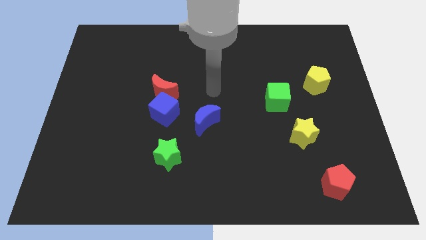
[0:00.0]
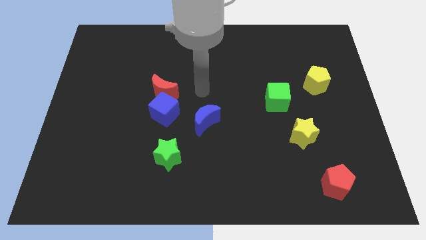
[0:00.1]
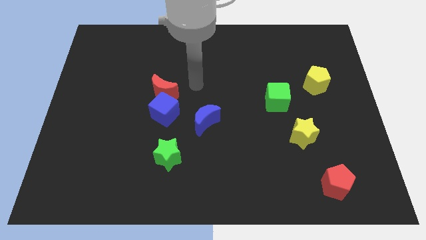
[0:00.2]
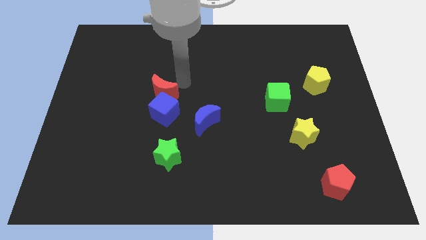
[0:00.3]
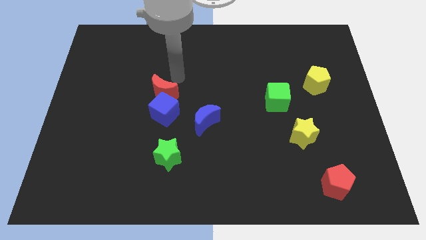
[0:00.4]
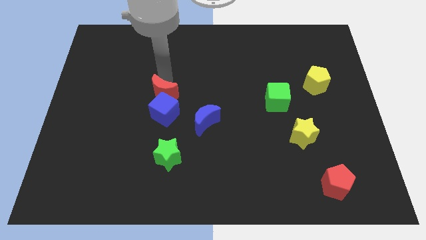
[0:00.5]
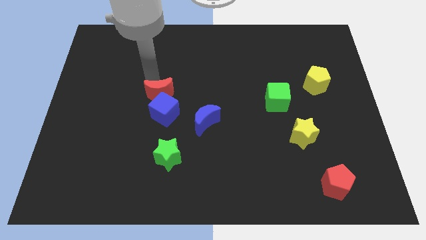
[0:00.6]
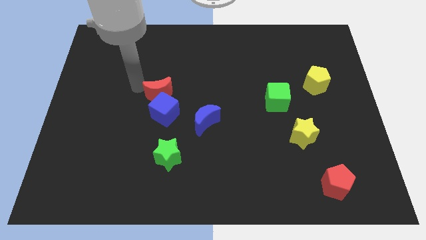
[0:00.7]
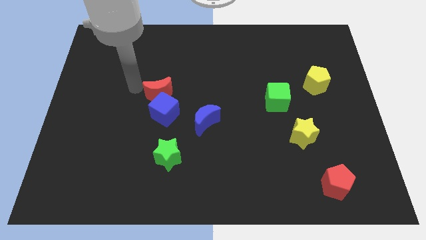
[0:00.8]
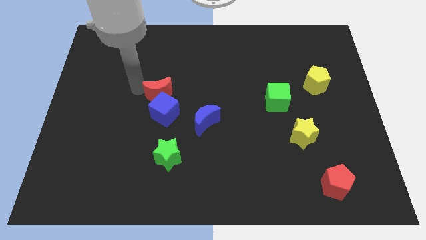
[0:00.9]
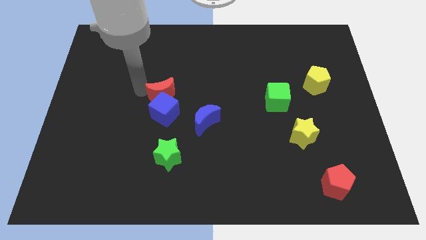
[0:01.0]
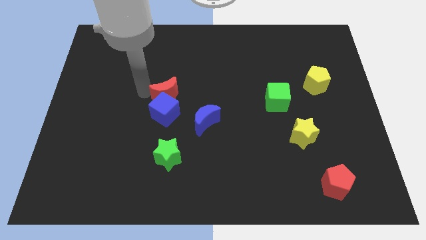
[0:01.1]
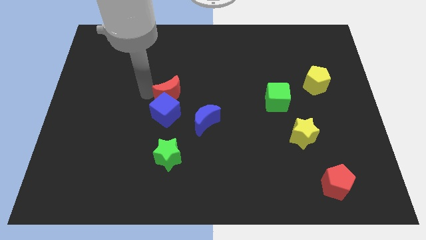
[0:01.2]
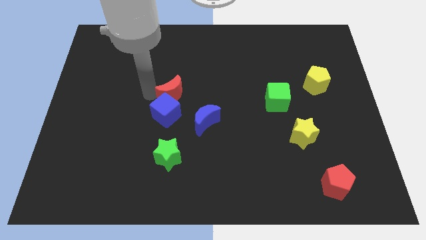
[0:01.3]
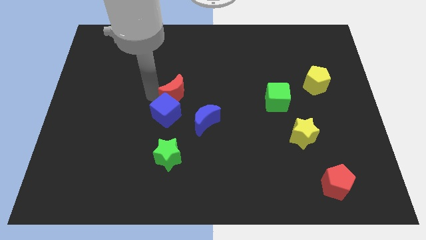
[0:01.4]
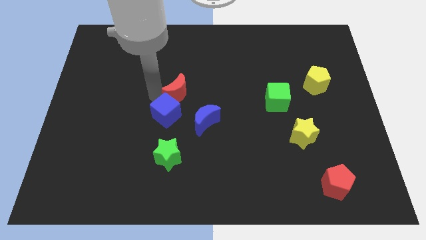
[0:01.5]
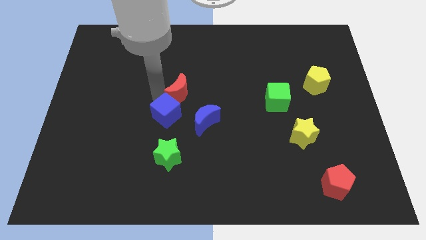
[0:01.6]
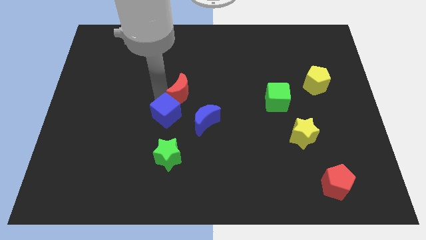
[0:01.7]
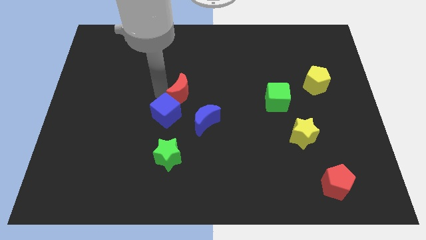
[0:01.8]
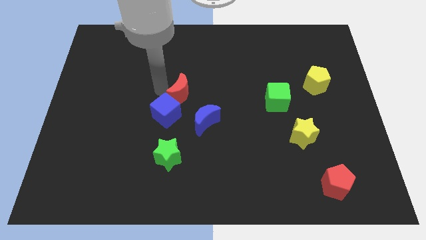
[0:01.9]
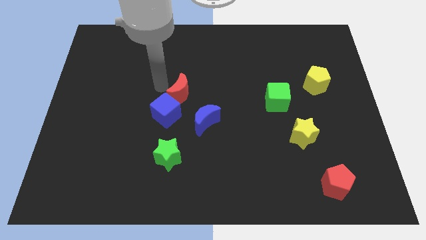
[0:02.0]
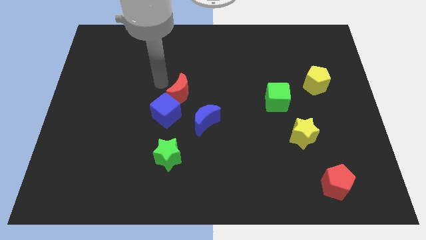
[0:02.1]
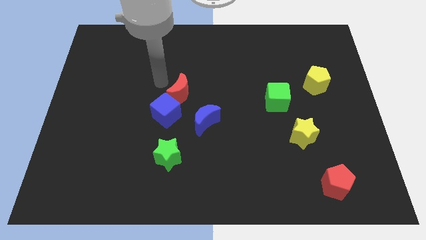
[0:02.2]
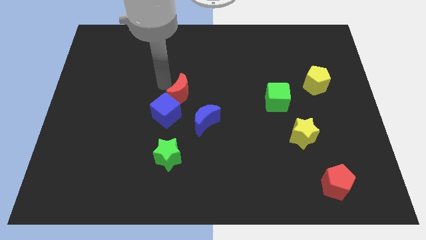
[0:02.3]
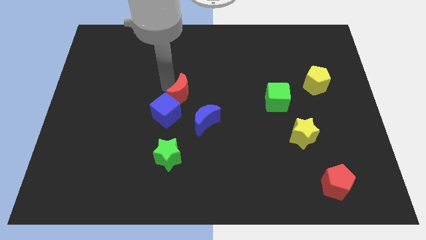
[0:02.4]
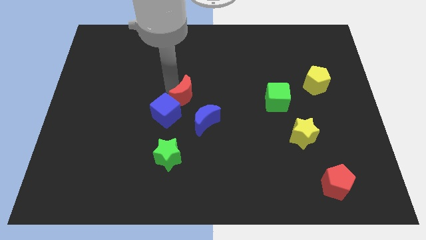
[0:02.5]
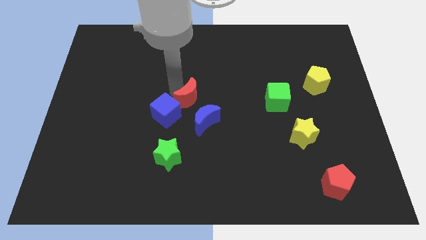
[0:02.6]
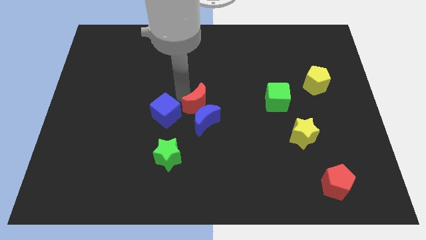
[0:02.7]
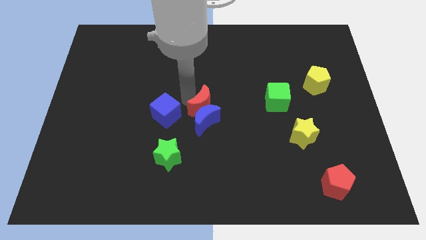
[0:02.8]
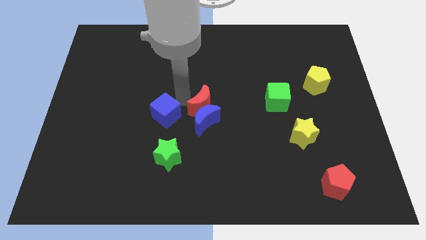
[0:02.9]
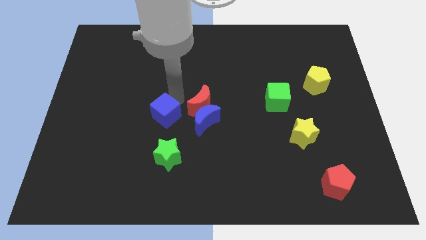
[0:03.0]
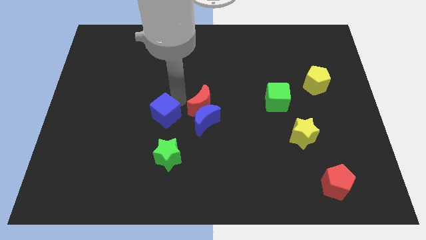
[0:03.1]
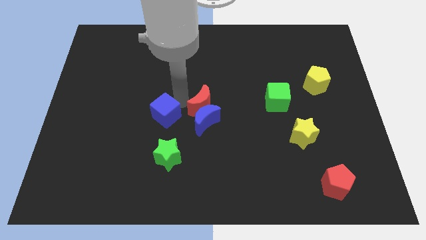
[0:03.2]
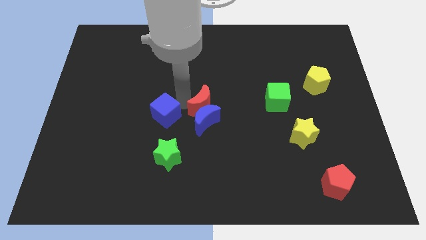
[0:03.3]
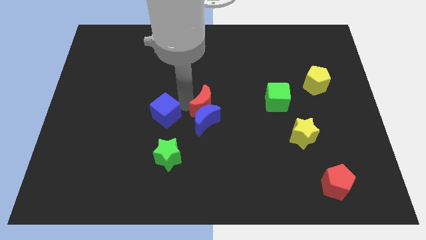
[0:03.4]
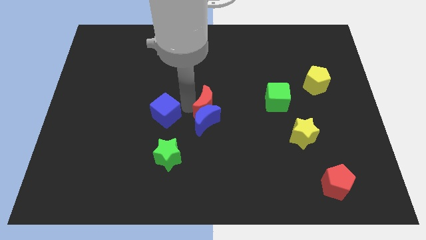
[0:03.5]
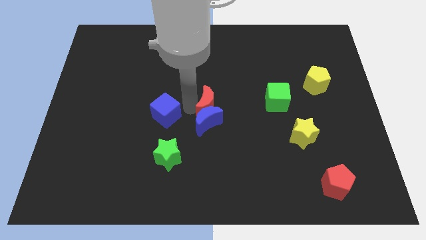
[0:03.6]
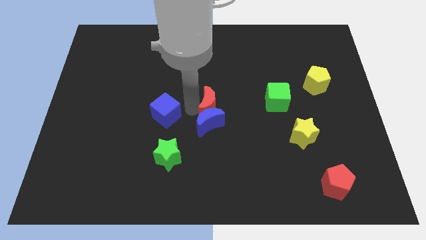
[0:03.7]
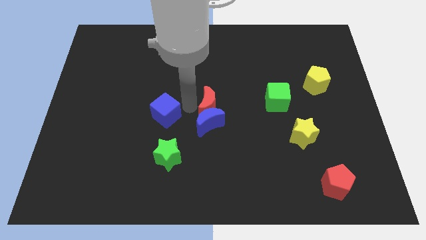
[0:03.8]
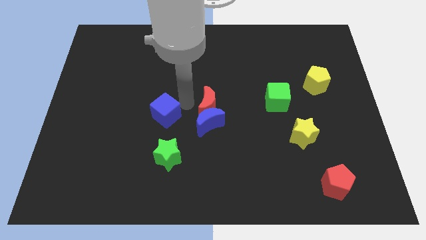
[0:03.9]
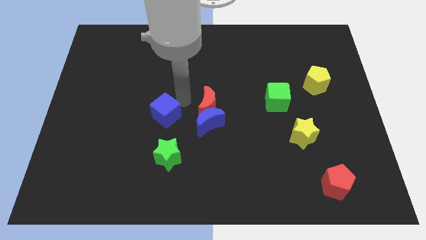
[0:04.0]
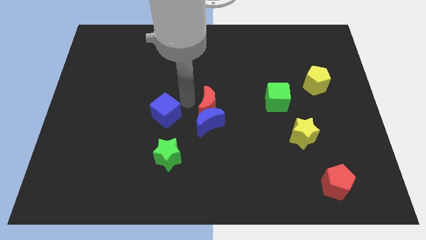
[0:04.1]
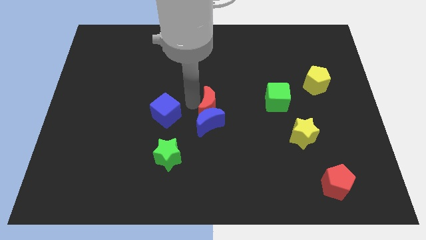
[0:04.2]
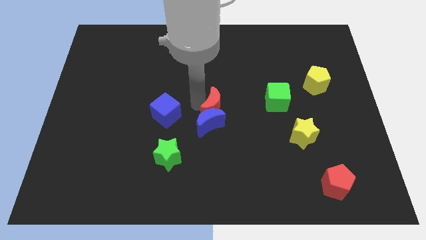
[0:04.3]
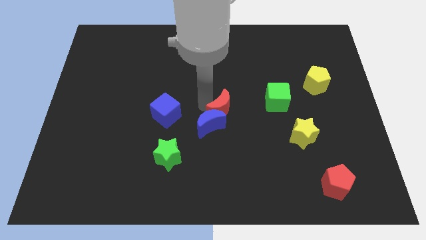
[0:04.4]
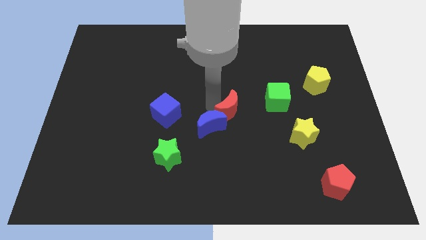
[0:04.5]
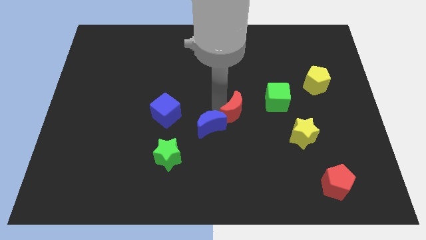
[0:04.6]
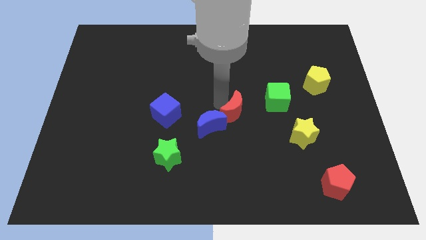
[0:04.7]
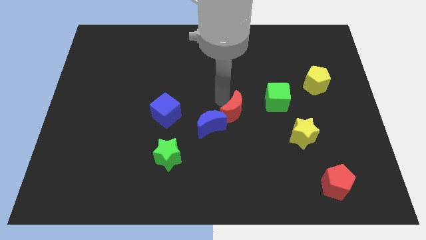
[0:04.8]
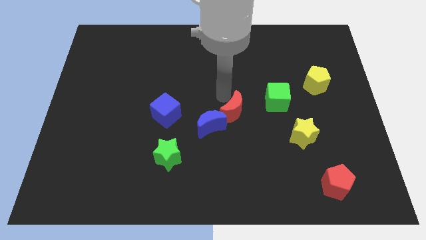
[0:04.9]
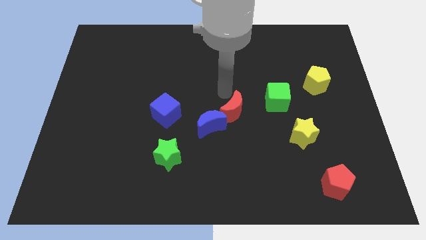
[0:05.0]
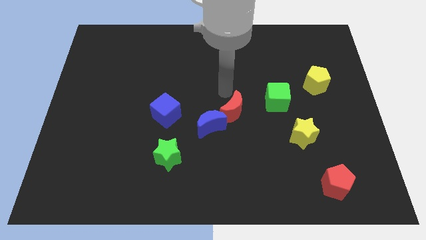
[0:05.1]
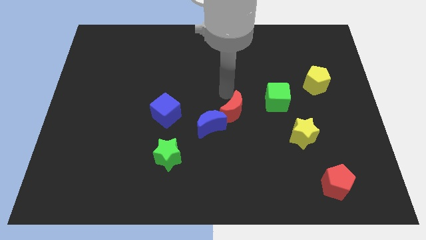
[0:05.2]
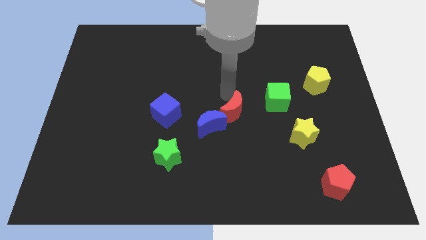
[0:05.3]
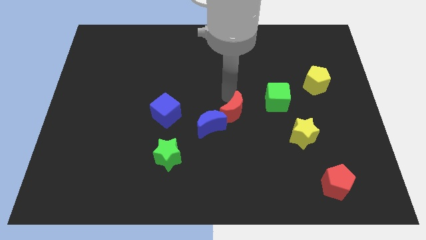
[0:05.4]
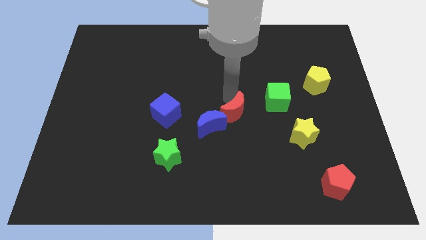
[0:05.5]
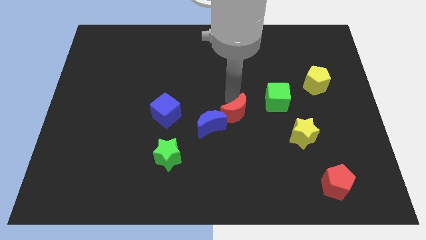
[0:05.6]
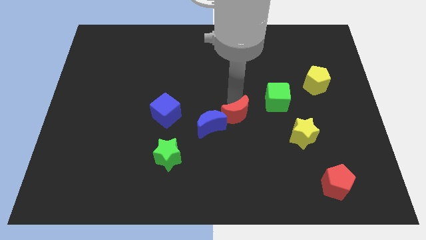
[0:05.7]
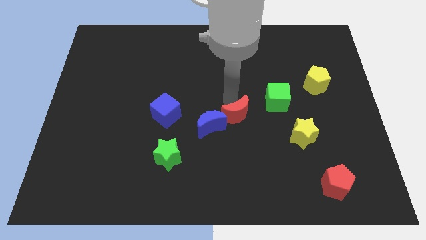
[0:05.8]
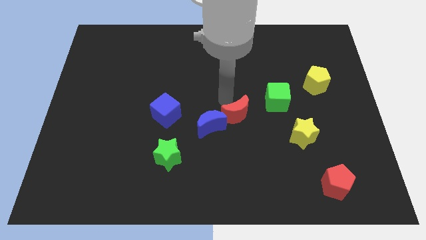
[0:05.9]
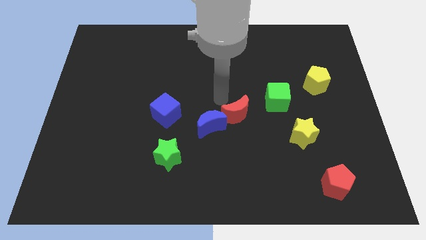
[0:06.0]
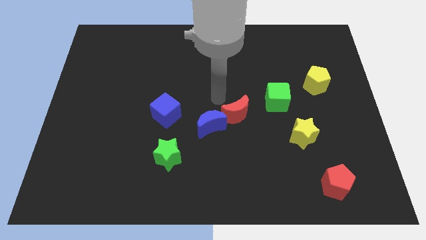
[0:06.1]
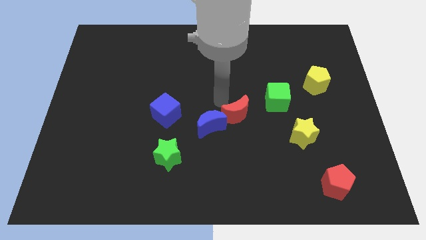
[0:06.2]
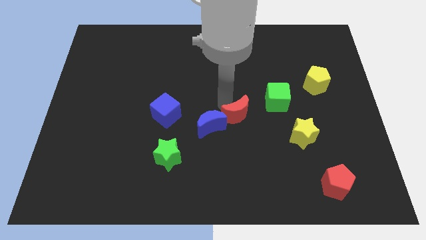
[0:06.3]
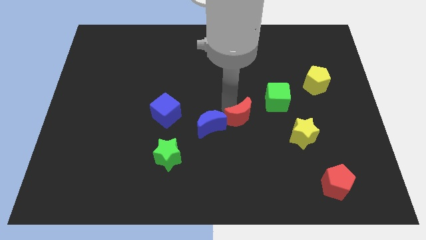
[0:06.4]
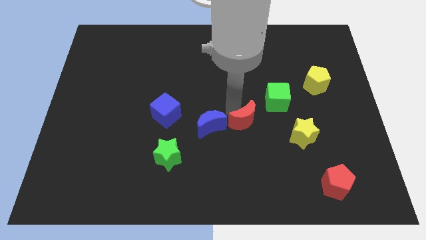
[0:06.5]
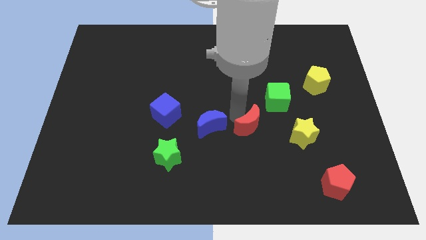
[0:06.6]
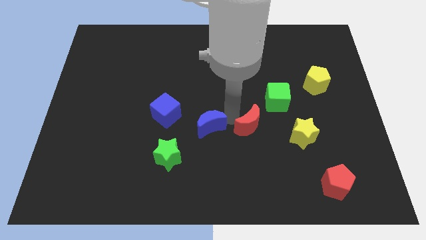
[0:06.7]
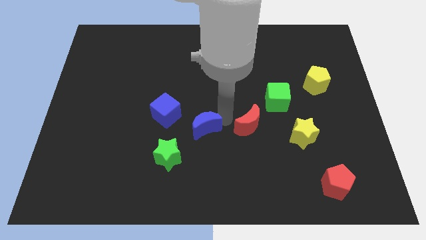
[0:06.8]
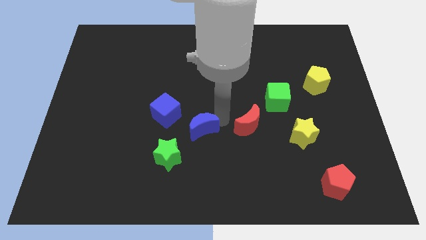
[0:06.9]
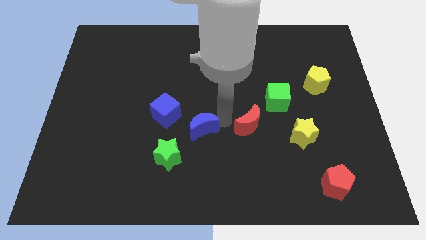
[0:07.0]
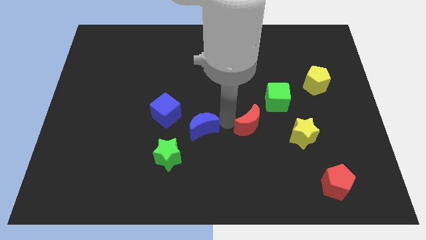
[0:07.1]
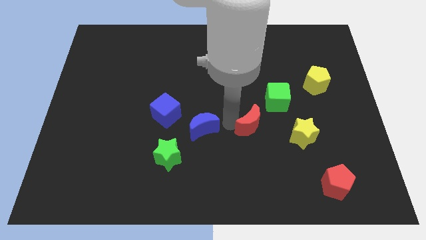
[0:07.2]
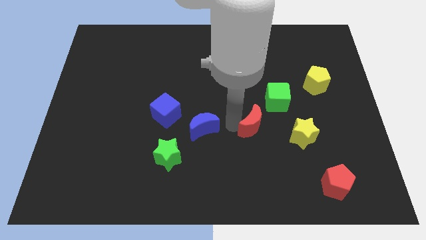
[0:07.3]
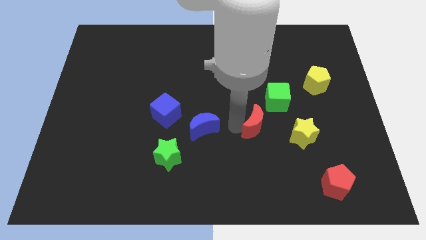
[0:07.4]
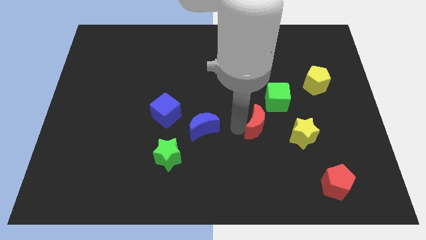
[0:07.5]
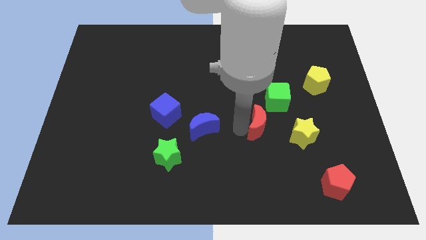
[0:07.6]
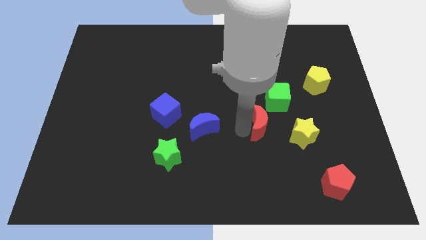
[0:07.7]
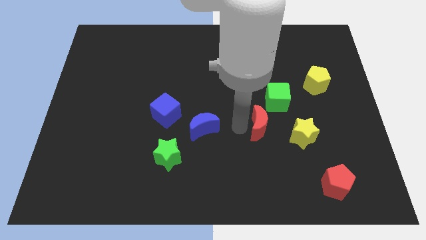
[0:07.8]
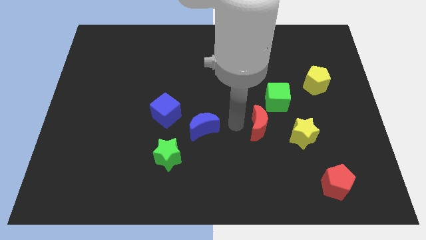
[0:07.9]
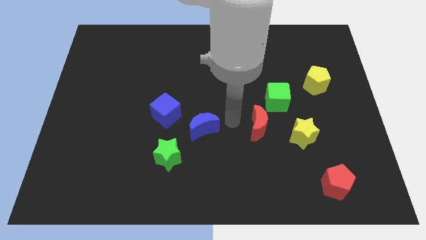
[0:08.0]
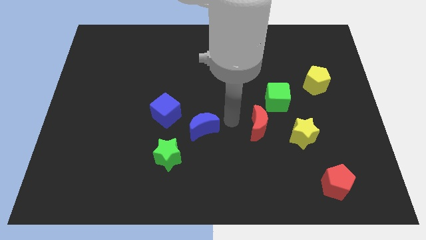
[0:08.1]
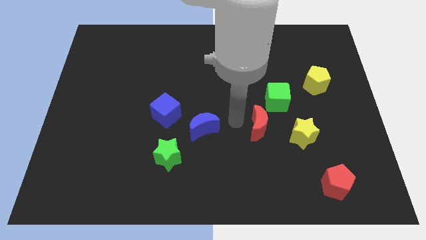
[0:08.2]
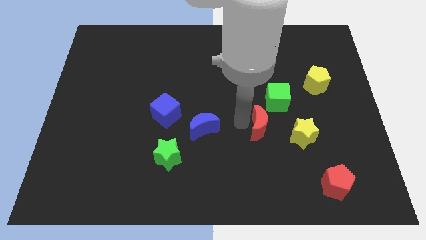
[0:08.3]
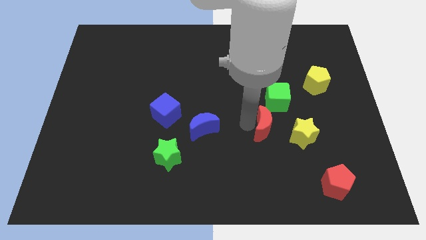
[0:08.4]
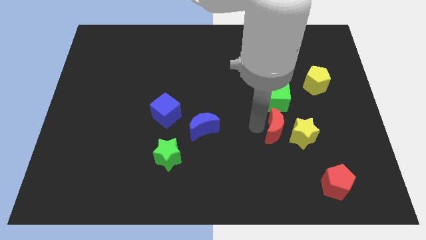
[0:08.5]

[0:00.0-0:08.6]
push the red moon close to the yellow star
